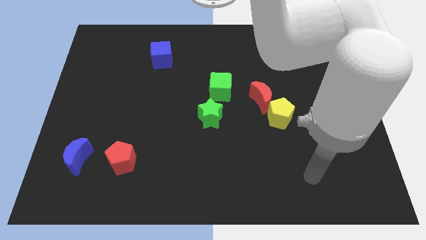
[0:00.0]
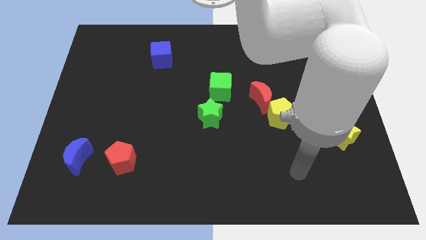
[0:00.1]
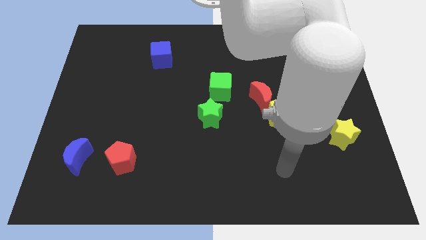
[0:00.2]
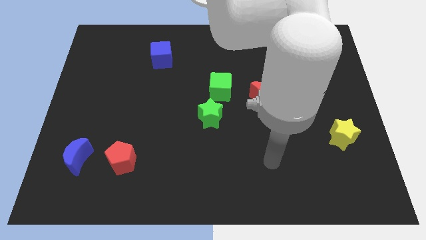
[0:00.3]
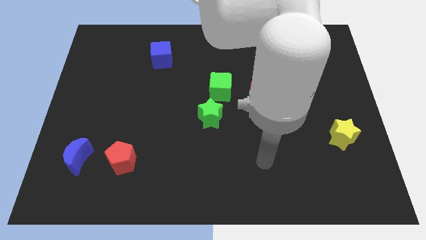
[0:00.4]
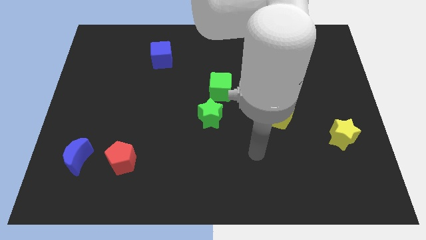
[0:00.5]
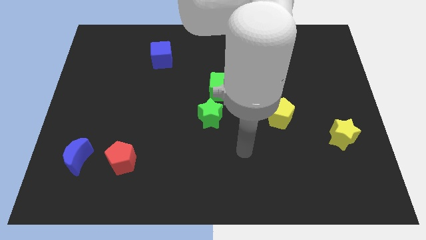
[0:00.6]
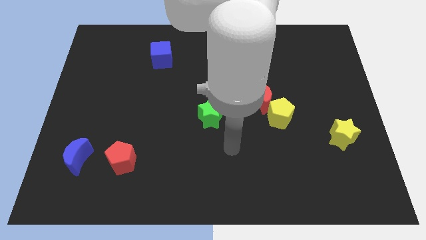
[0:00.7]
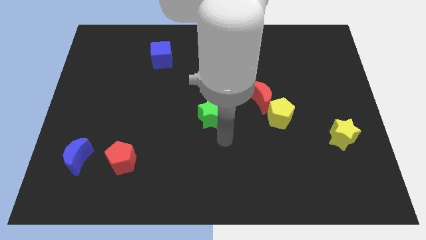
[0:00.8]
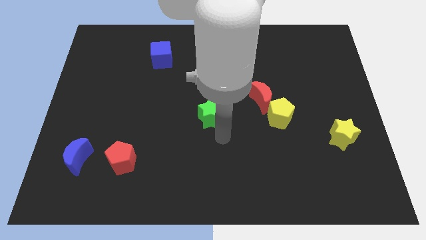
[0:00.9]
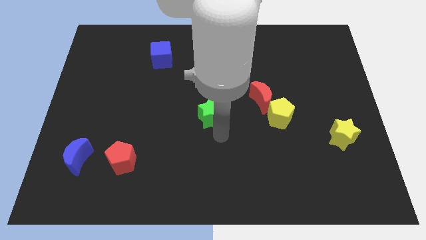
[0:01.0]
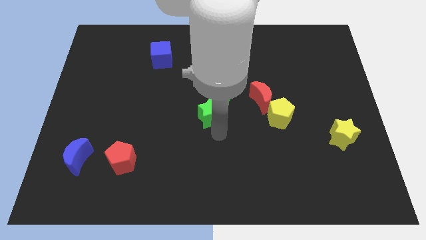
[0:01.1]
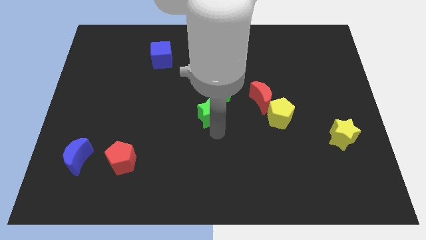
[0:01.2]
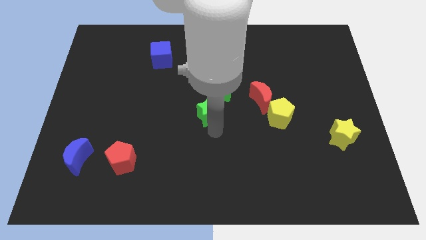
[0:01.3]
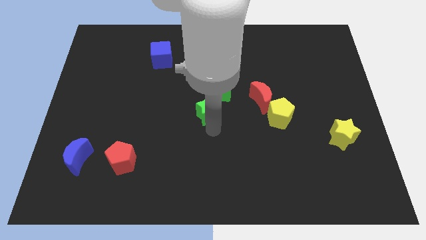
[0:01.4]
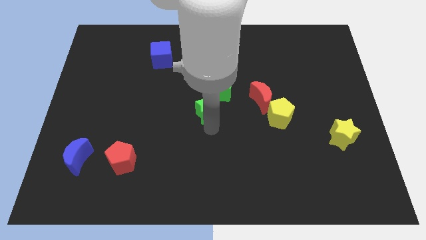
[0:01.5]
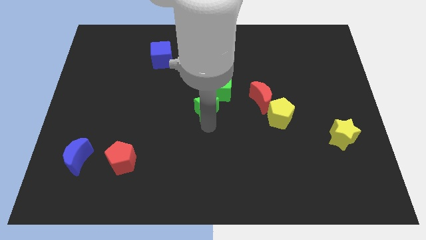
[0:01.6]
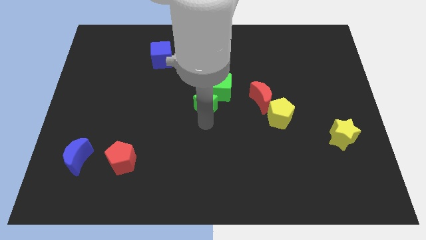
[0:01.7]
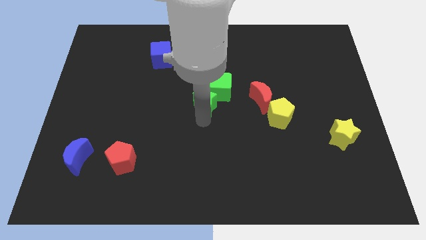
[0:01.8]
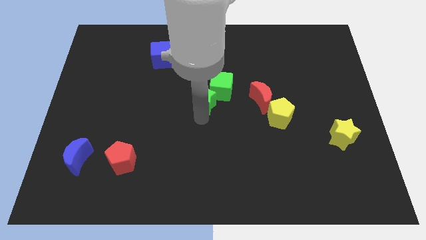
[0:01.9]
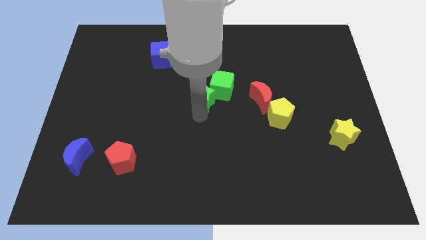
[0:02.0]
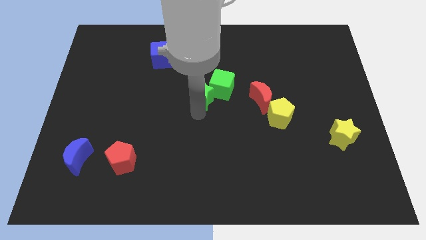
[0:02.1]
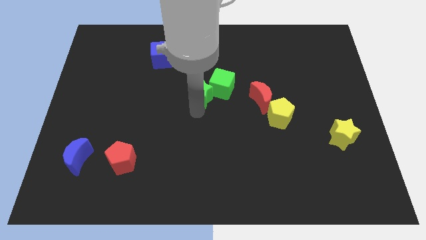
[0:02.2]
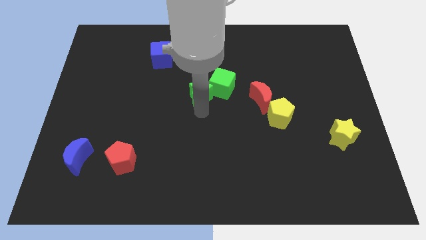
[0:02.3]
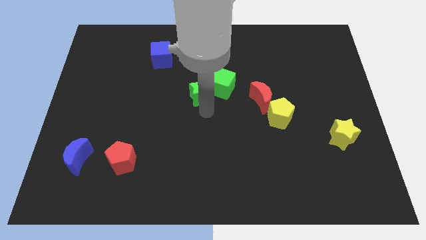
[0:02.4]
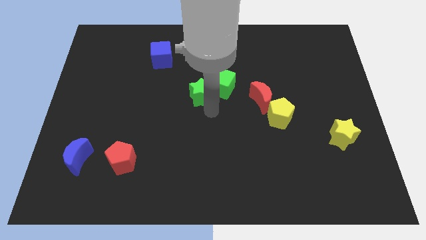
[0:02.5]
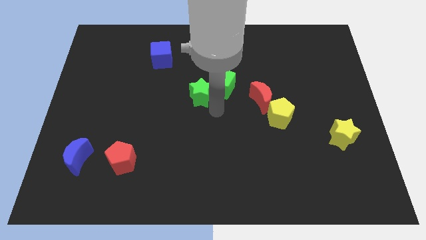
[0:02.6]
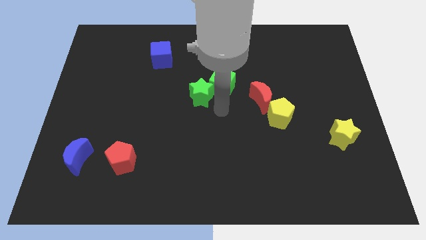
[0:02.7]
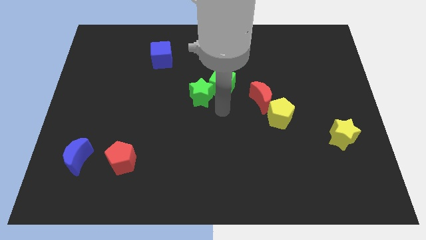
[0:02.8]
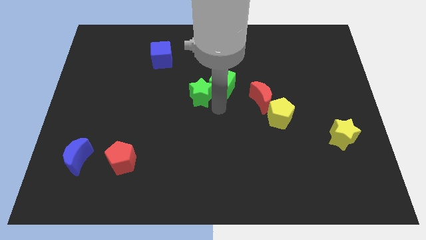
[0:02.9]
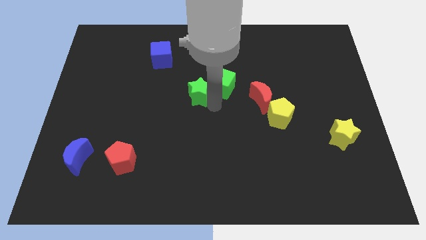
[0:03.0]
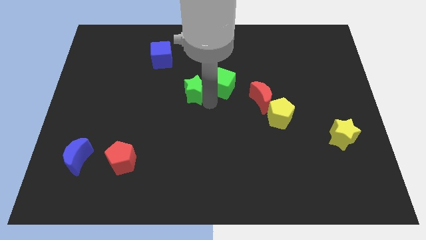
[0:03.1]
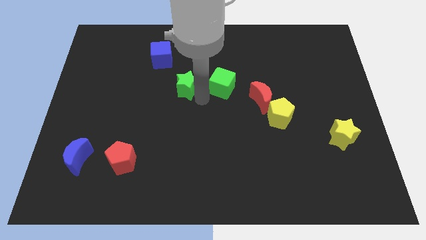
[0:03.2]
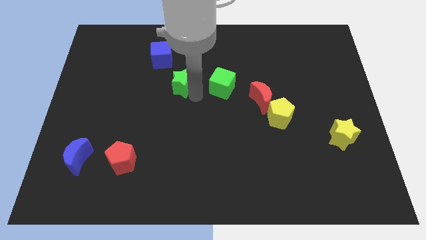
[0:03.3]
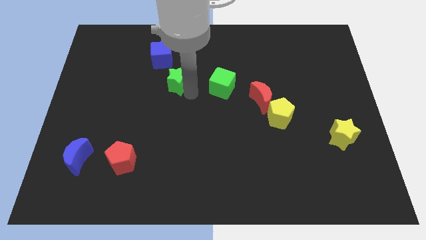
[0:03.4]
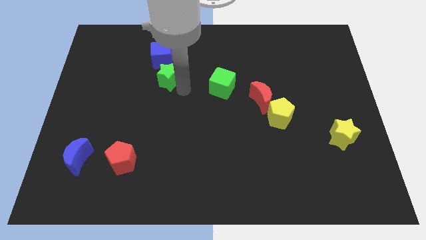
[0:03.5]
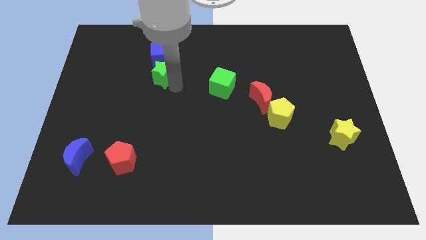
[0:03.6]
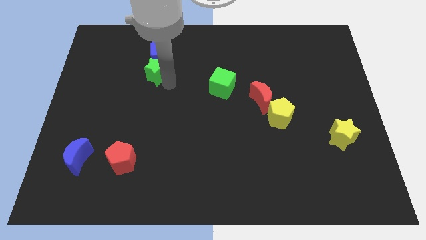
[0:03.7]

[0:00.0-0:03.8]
move the green star to the blue cube

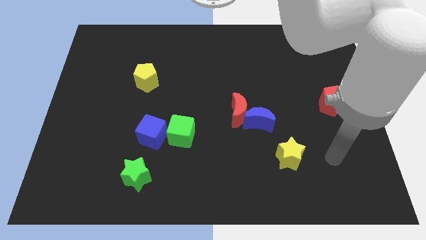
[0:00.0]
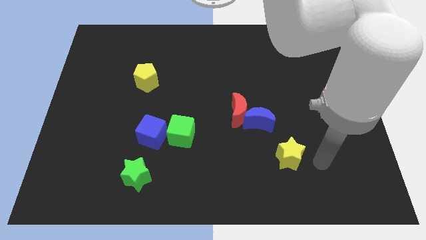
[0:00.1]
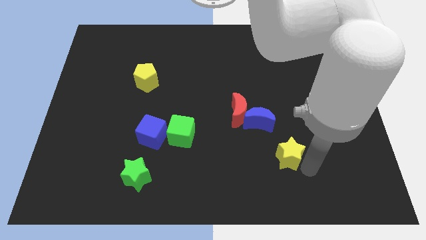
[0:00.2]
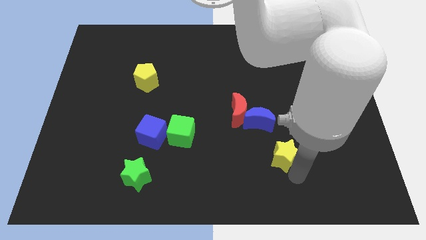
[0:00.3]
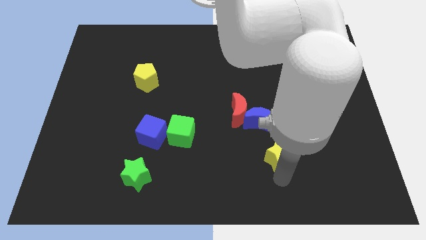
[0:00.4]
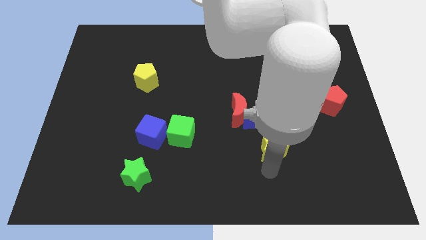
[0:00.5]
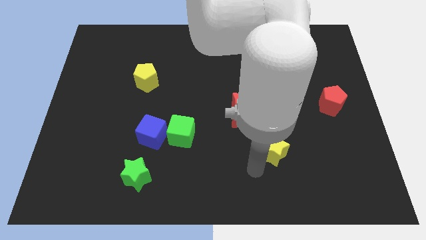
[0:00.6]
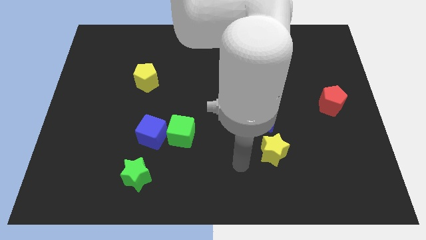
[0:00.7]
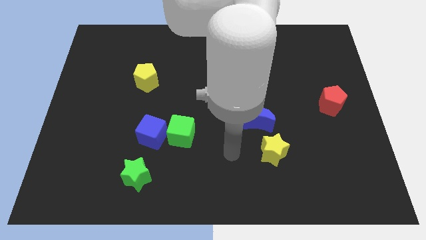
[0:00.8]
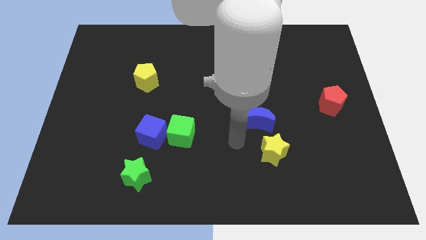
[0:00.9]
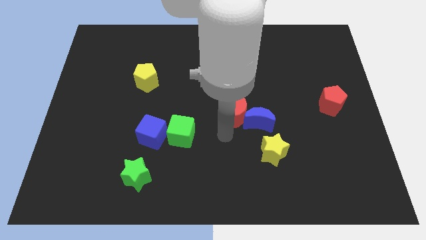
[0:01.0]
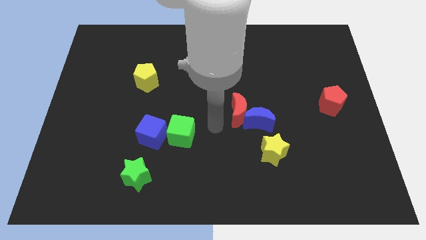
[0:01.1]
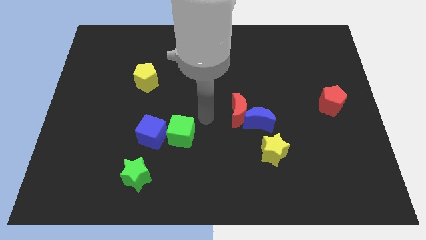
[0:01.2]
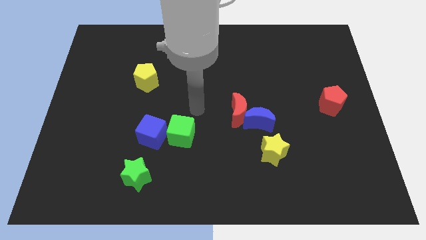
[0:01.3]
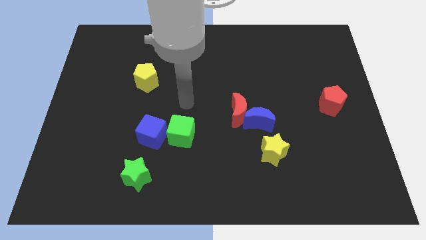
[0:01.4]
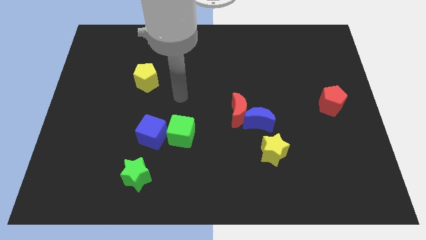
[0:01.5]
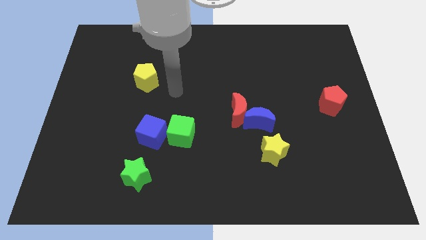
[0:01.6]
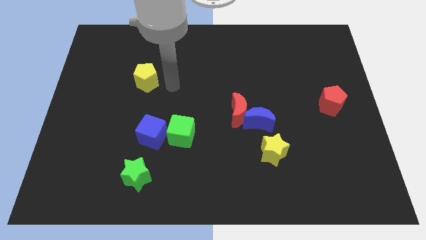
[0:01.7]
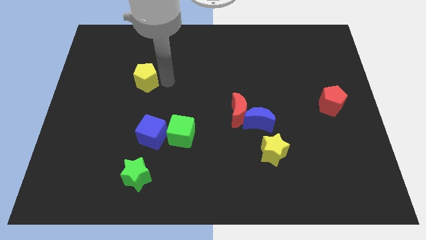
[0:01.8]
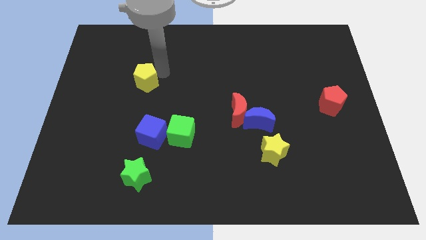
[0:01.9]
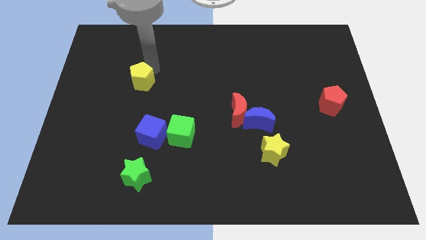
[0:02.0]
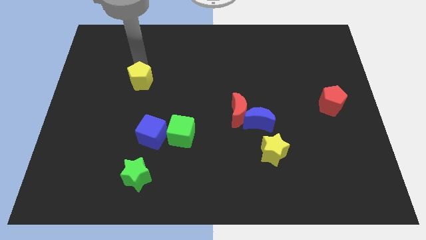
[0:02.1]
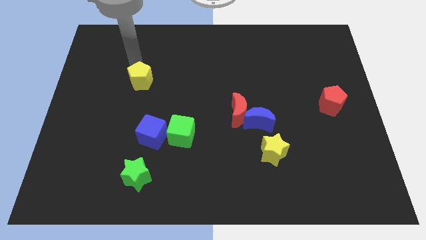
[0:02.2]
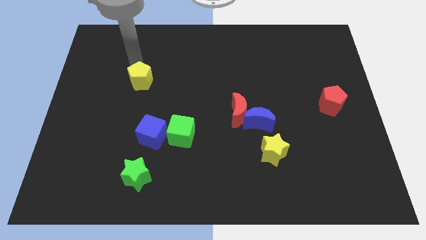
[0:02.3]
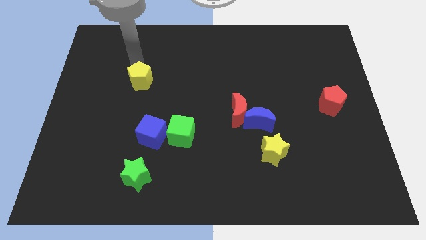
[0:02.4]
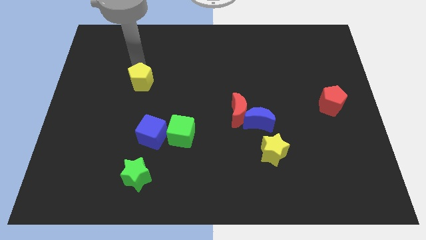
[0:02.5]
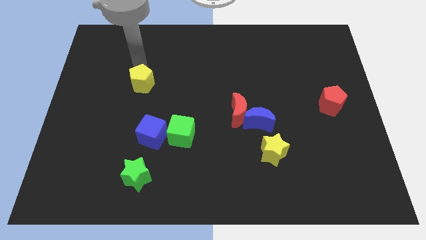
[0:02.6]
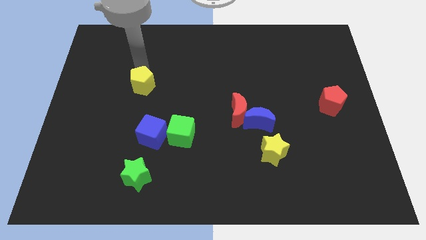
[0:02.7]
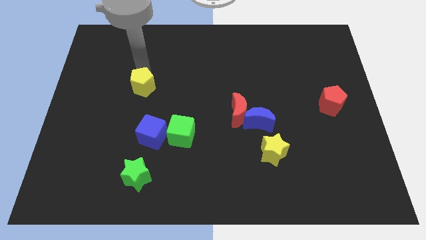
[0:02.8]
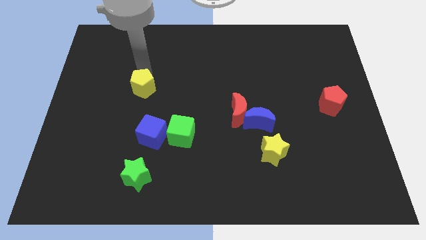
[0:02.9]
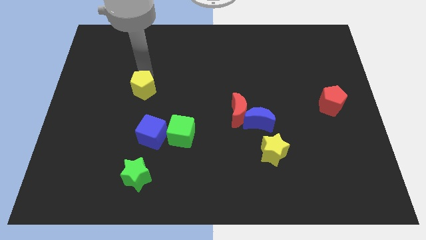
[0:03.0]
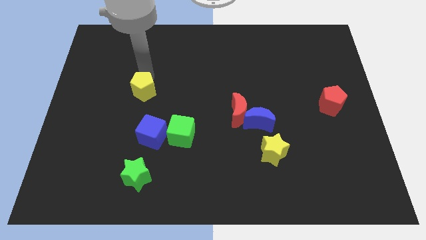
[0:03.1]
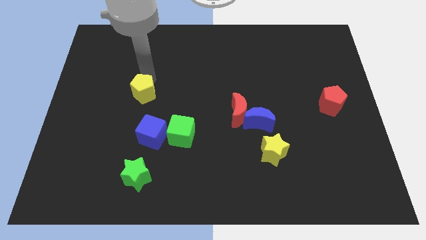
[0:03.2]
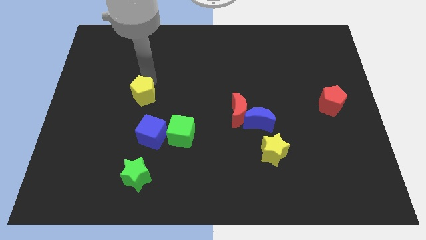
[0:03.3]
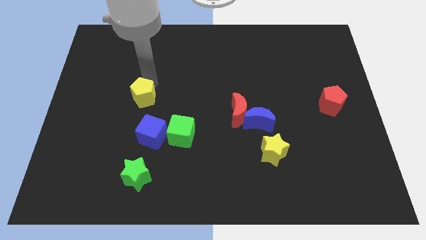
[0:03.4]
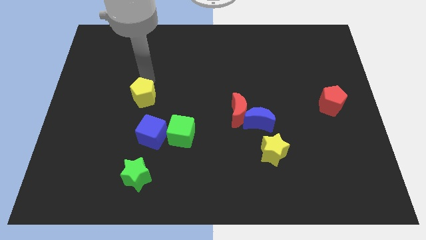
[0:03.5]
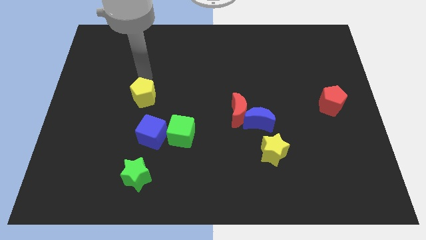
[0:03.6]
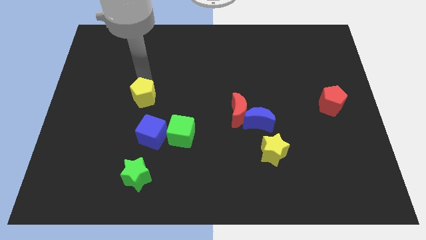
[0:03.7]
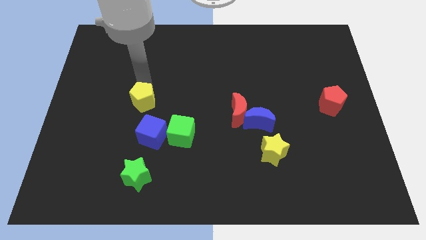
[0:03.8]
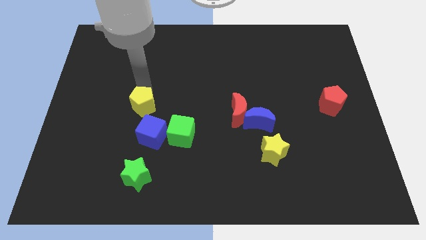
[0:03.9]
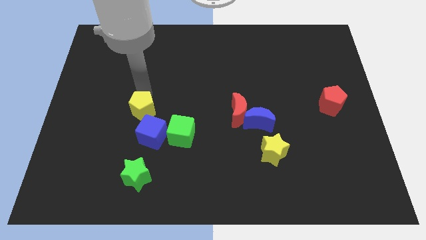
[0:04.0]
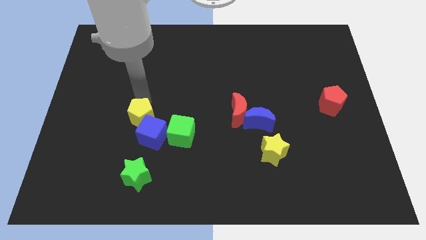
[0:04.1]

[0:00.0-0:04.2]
move the yellow pentagon towards the blue cube

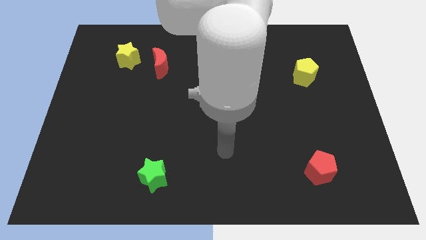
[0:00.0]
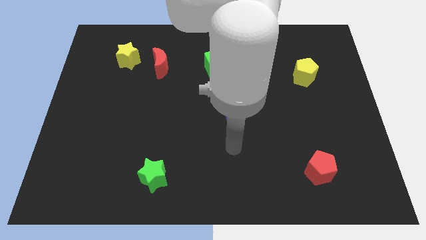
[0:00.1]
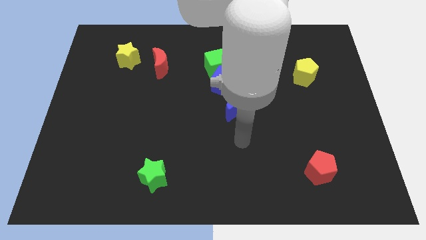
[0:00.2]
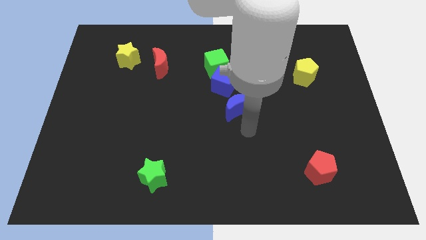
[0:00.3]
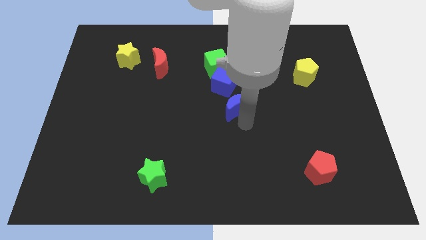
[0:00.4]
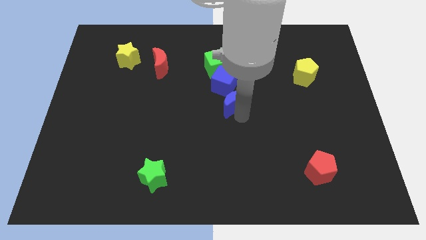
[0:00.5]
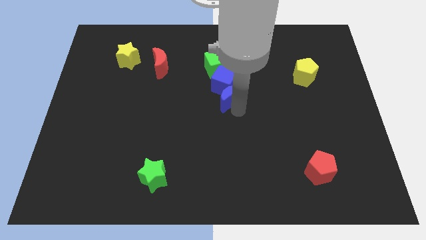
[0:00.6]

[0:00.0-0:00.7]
slide the blue moon towards the blue cube

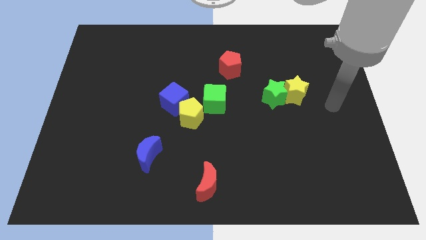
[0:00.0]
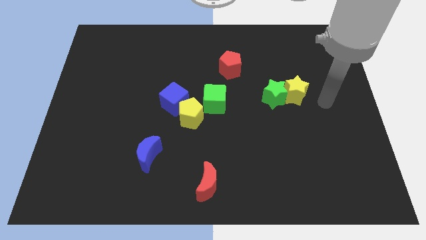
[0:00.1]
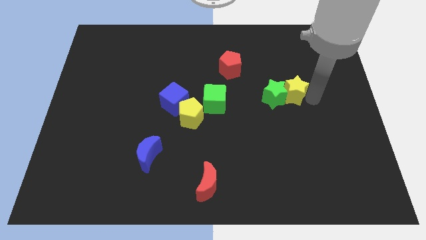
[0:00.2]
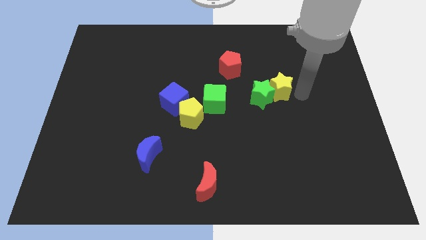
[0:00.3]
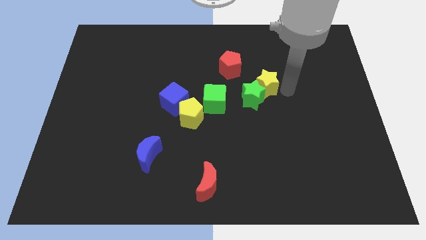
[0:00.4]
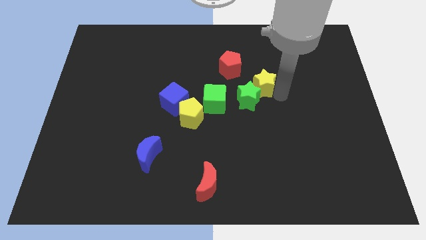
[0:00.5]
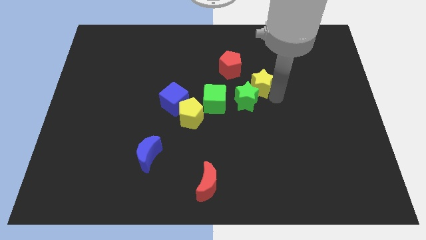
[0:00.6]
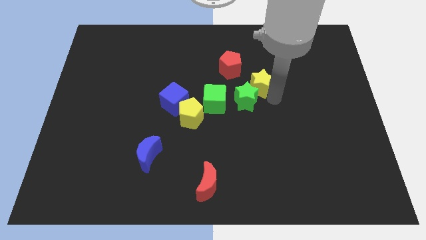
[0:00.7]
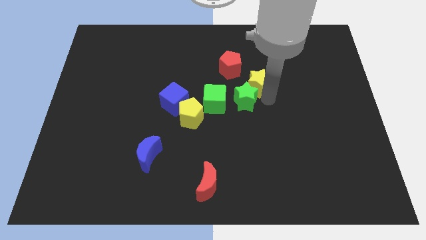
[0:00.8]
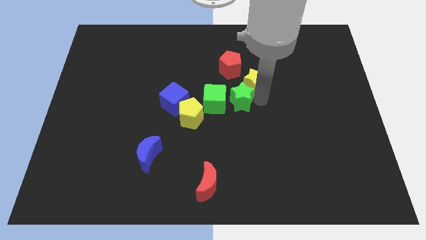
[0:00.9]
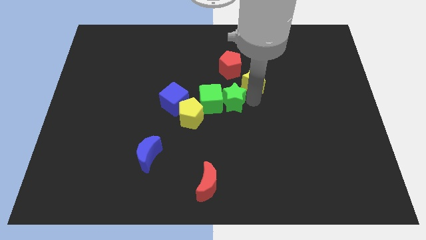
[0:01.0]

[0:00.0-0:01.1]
push the green star towards the green cube
